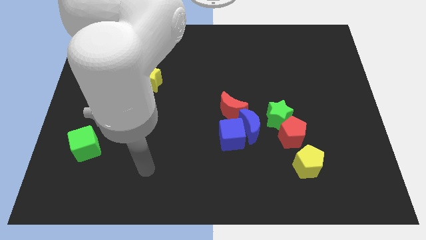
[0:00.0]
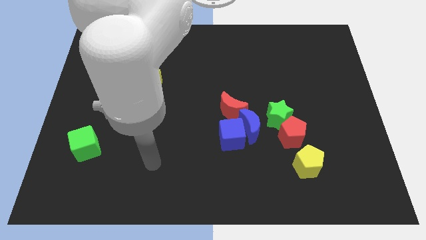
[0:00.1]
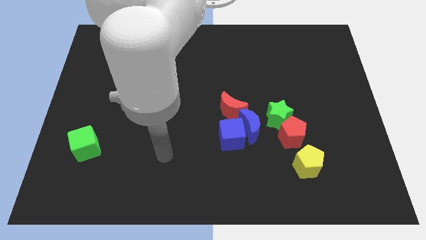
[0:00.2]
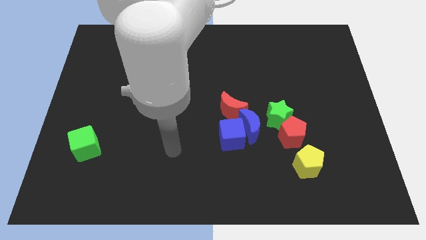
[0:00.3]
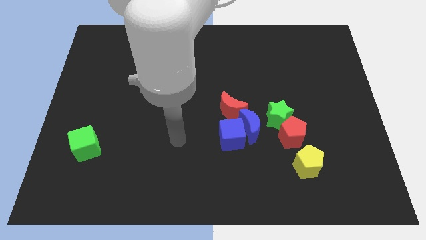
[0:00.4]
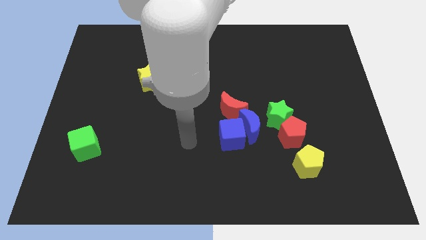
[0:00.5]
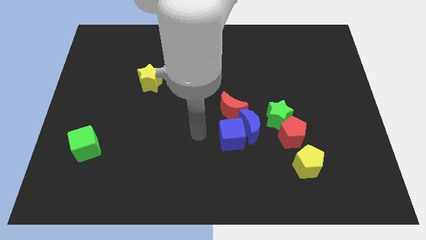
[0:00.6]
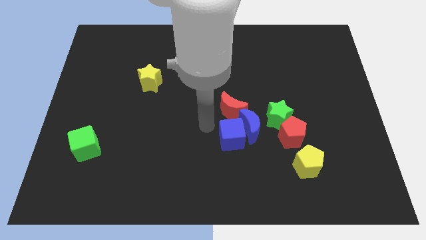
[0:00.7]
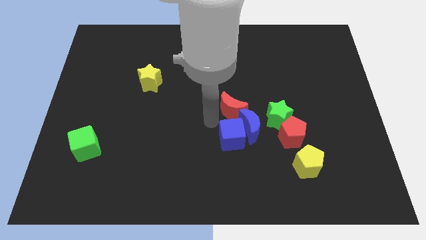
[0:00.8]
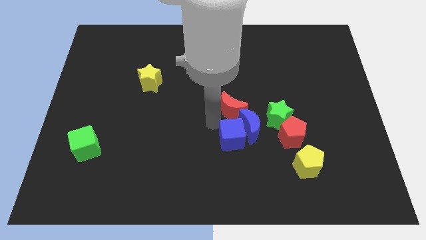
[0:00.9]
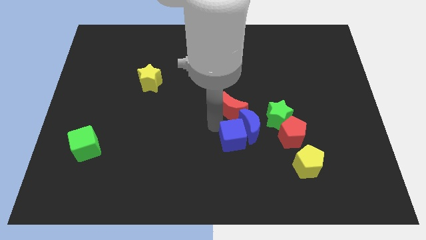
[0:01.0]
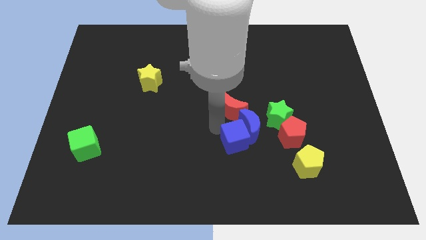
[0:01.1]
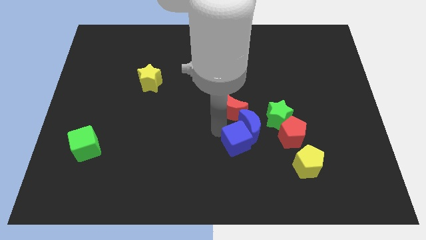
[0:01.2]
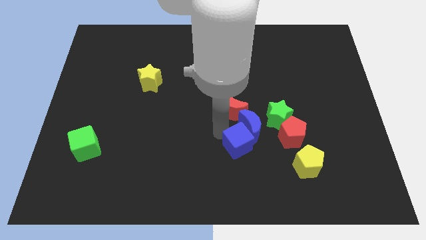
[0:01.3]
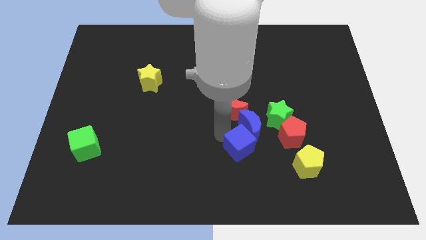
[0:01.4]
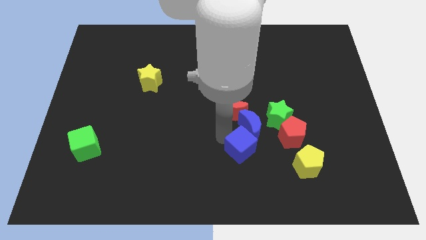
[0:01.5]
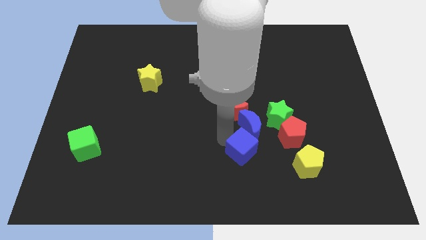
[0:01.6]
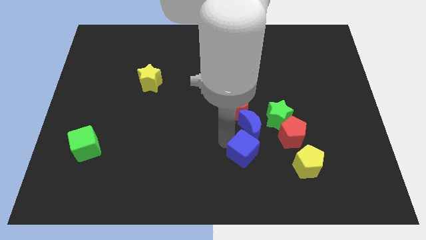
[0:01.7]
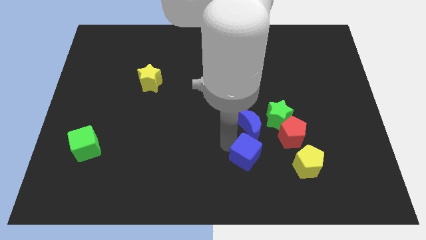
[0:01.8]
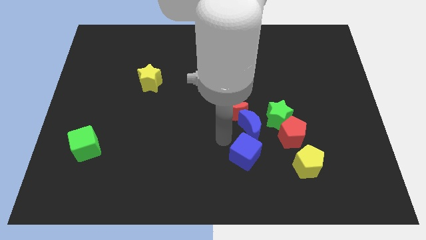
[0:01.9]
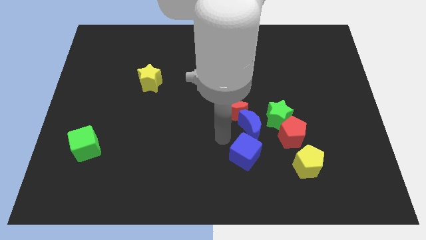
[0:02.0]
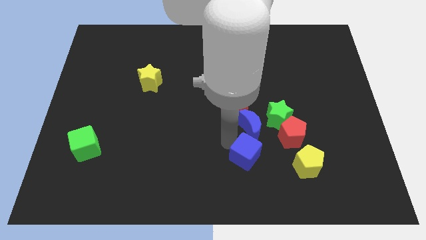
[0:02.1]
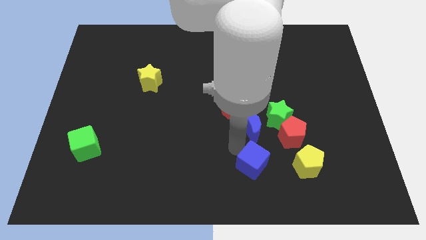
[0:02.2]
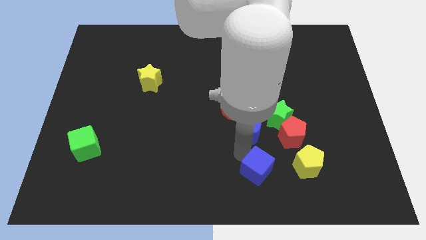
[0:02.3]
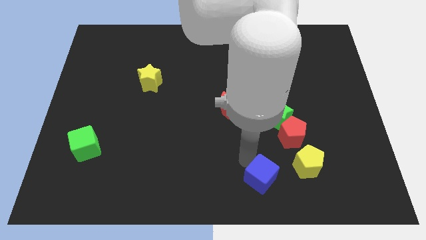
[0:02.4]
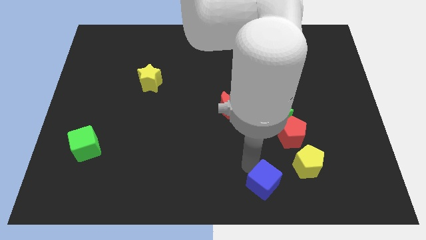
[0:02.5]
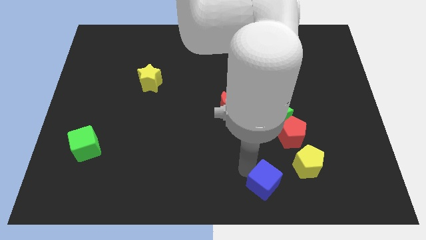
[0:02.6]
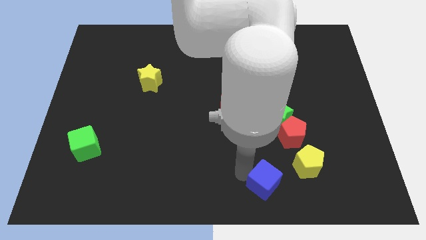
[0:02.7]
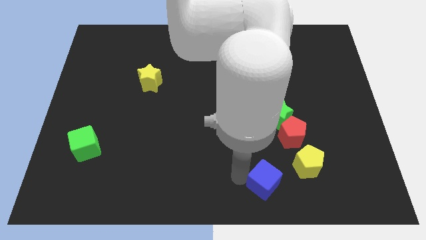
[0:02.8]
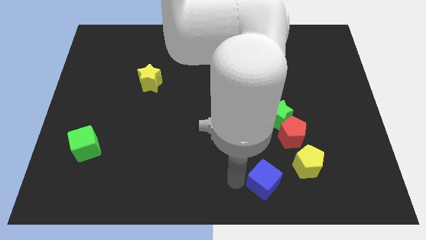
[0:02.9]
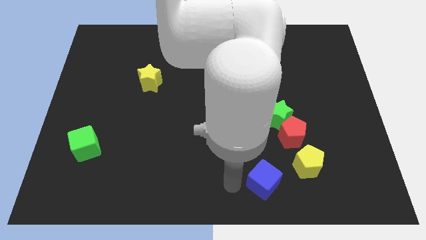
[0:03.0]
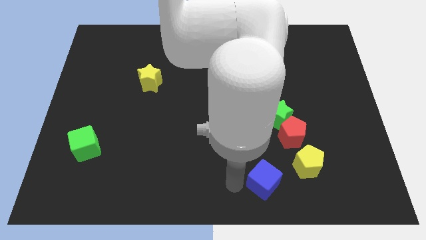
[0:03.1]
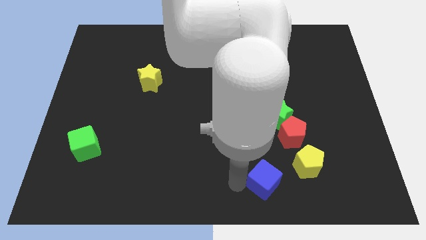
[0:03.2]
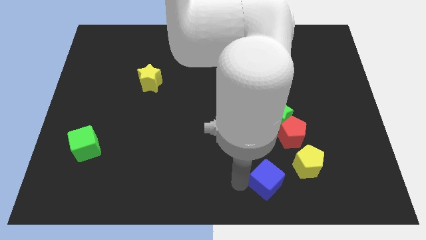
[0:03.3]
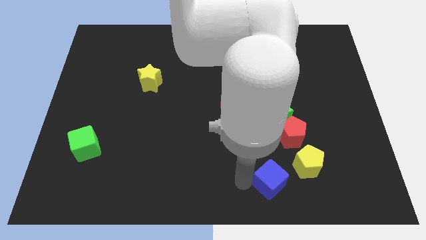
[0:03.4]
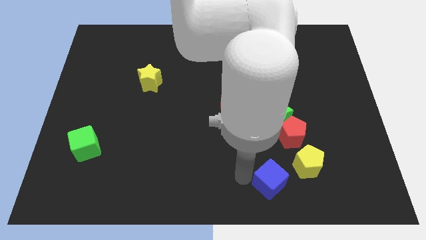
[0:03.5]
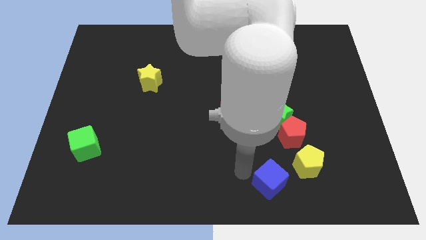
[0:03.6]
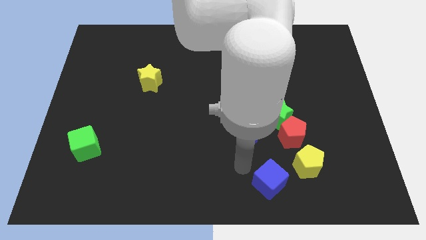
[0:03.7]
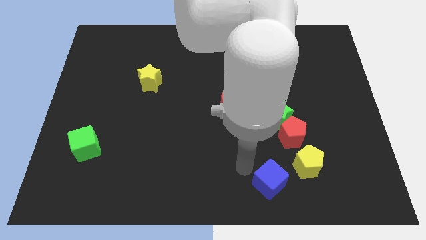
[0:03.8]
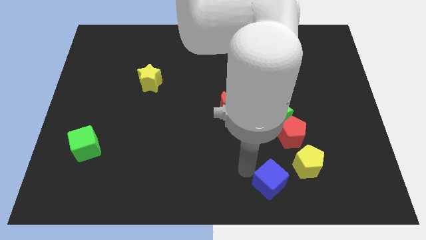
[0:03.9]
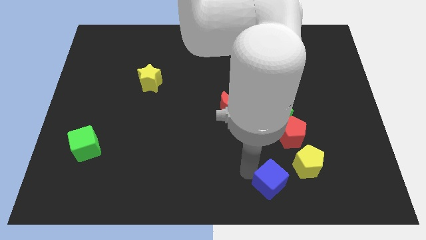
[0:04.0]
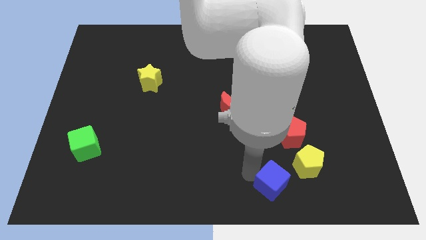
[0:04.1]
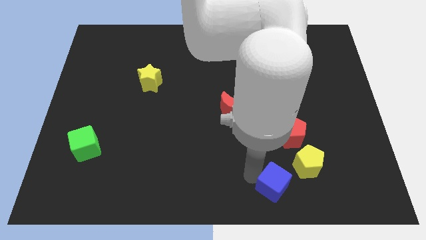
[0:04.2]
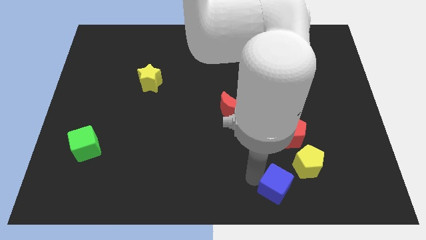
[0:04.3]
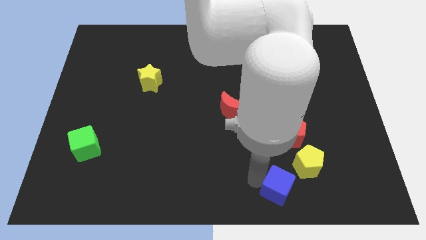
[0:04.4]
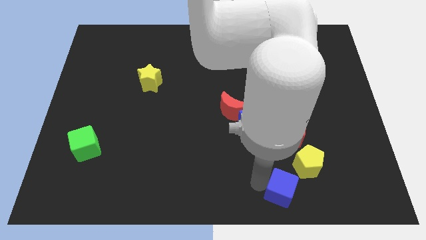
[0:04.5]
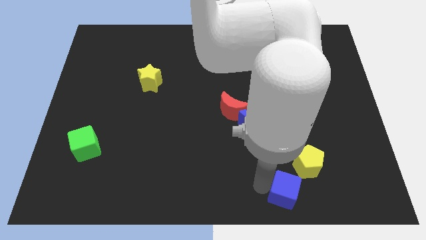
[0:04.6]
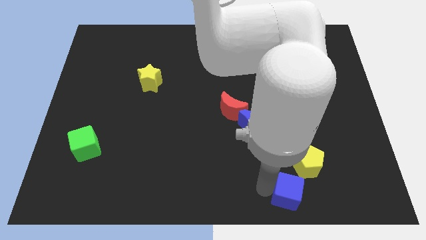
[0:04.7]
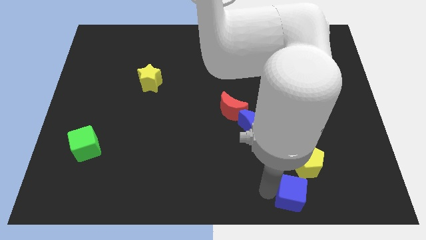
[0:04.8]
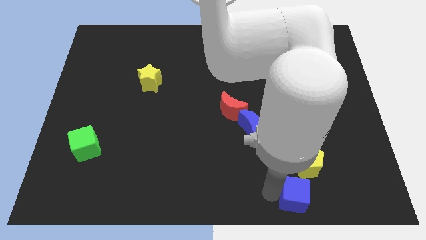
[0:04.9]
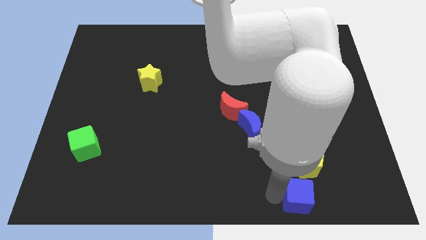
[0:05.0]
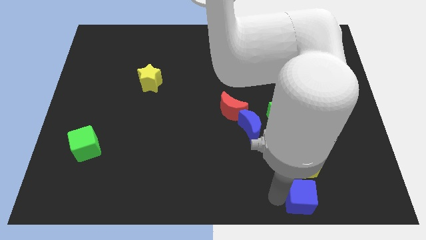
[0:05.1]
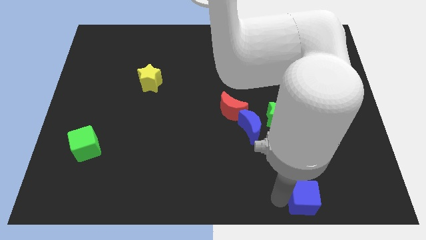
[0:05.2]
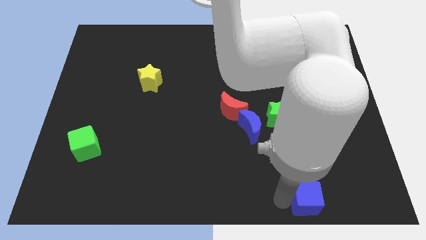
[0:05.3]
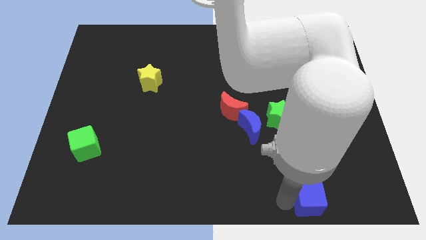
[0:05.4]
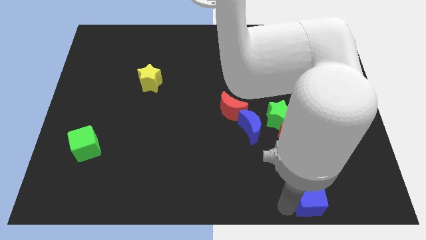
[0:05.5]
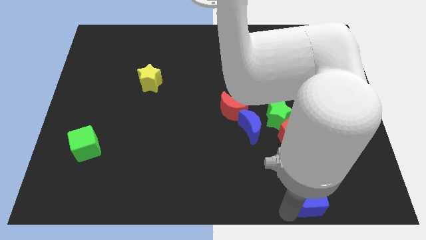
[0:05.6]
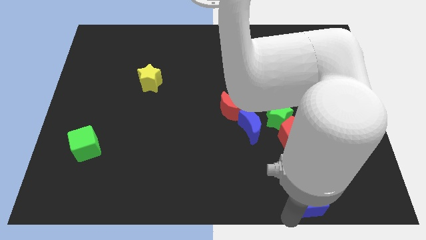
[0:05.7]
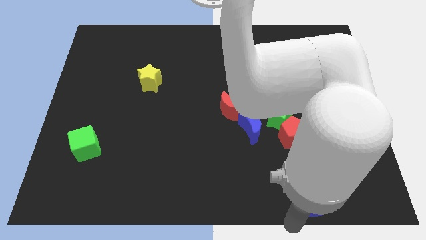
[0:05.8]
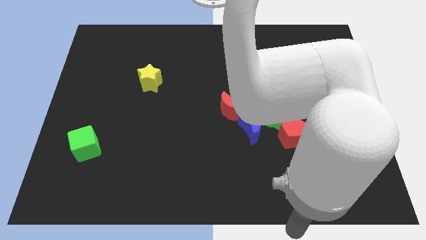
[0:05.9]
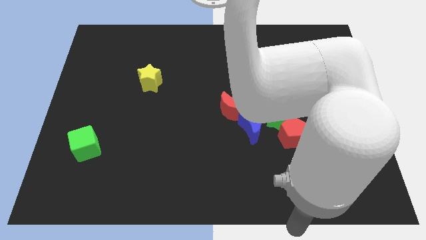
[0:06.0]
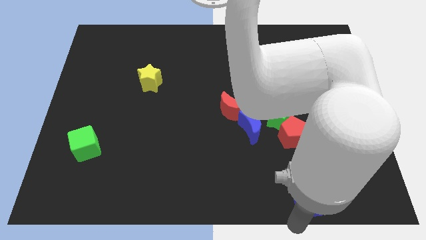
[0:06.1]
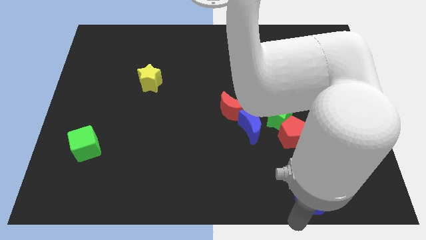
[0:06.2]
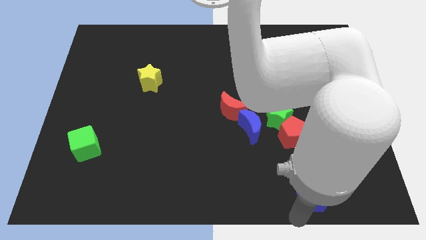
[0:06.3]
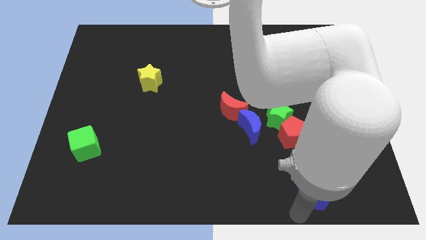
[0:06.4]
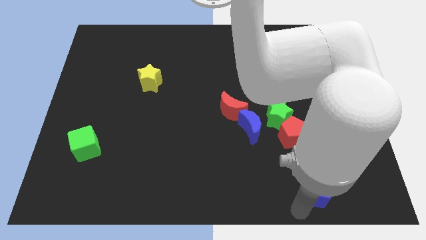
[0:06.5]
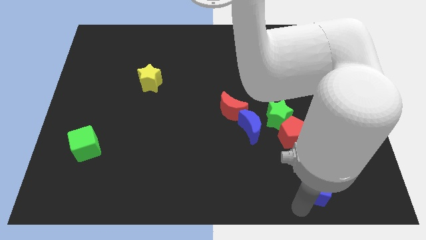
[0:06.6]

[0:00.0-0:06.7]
slightly move the blue cube to the right

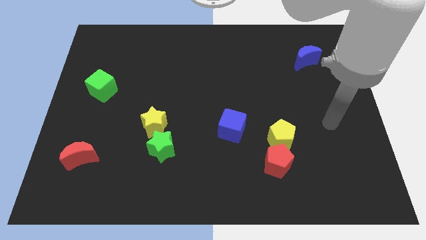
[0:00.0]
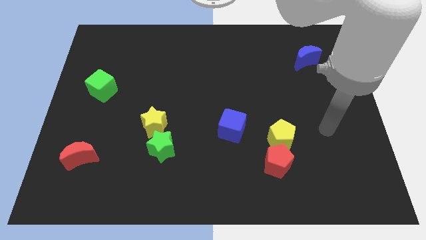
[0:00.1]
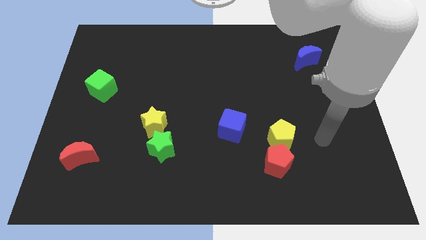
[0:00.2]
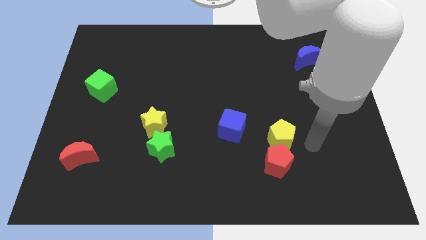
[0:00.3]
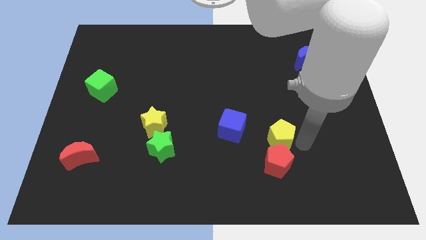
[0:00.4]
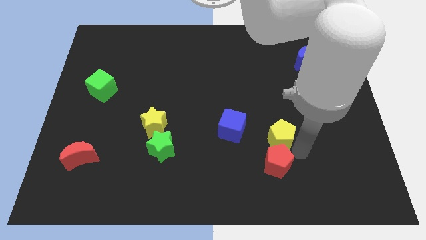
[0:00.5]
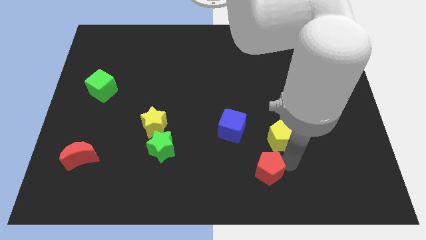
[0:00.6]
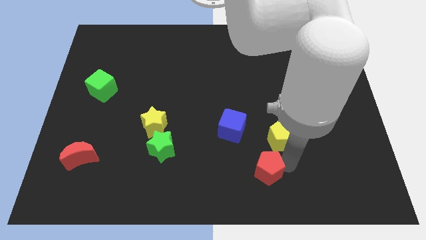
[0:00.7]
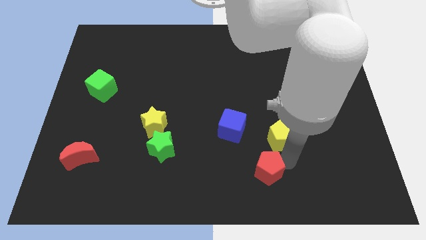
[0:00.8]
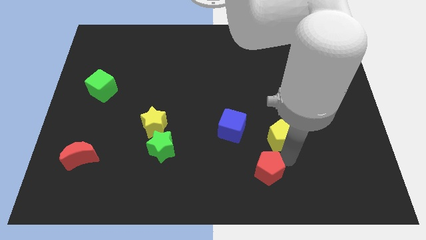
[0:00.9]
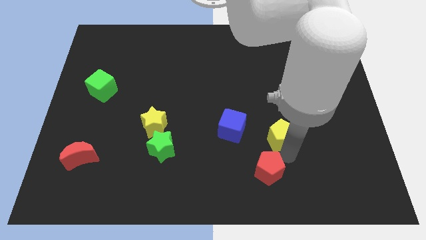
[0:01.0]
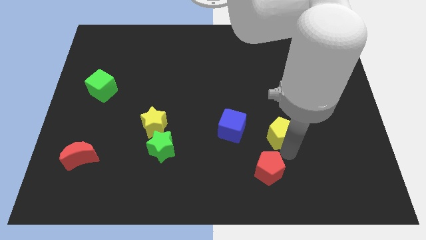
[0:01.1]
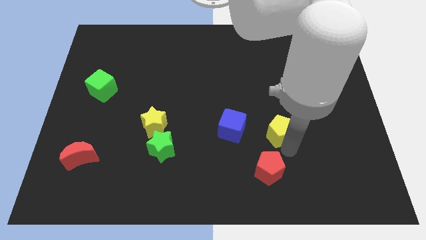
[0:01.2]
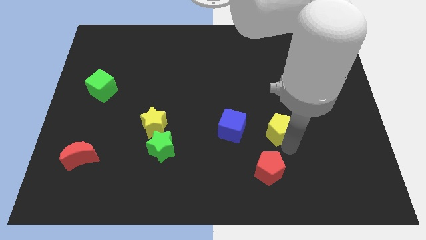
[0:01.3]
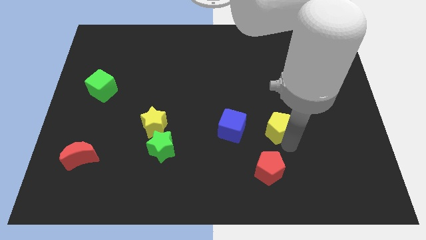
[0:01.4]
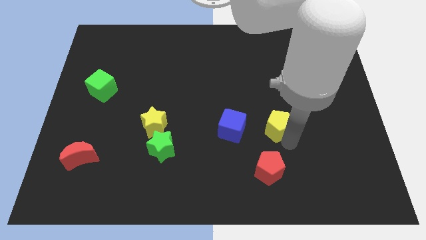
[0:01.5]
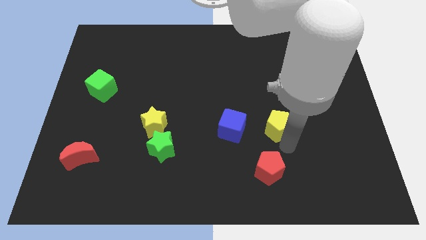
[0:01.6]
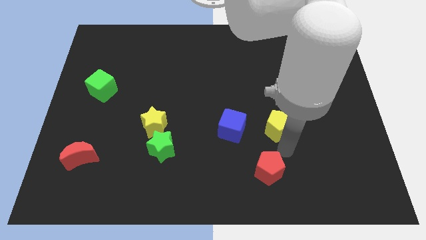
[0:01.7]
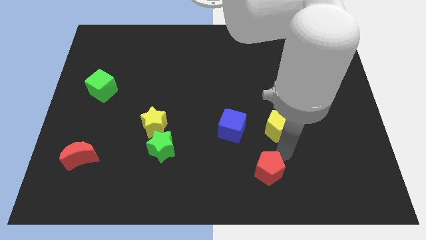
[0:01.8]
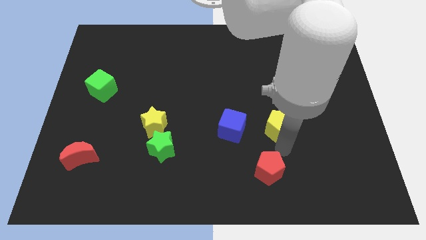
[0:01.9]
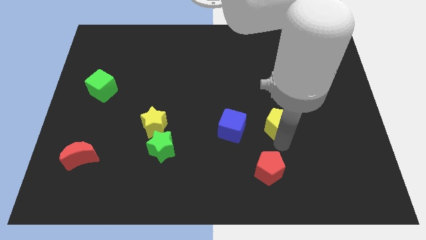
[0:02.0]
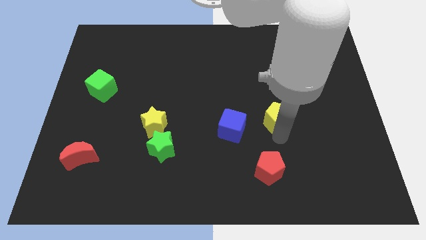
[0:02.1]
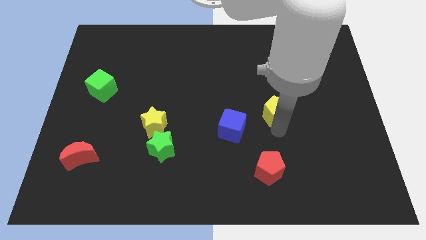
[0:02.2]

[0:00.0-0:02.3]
slightly push the yellow pentagon upwards
